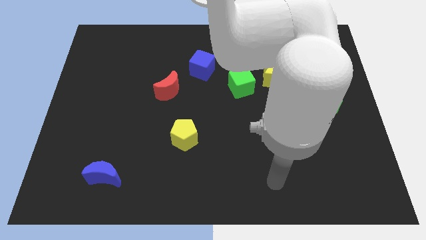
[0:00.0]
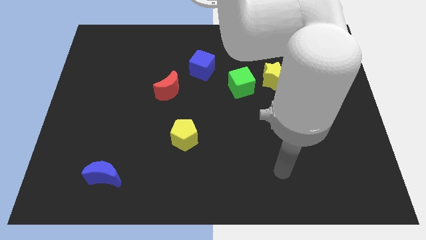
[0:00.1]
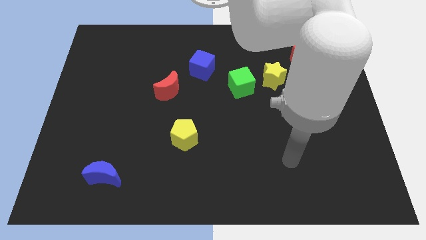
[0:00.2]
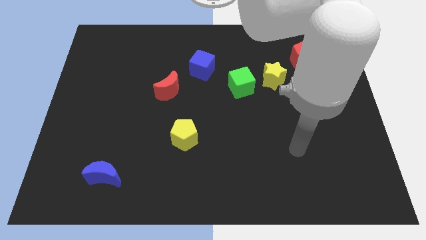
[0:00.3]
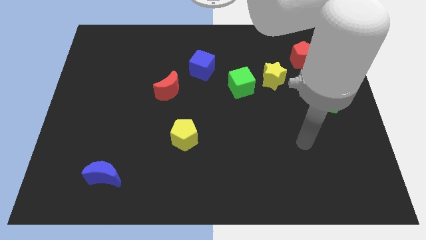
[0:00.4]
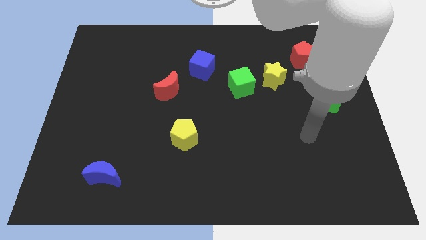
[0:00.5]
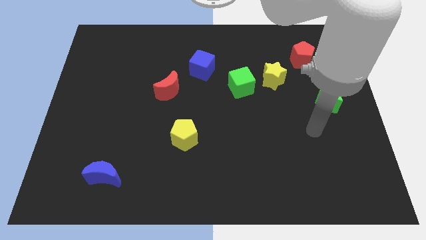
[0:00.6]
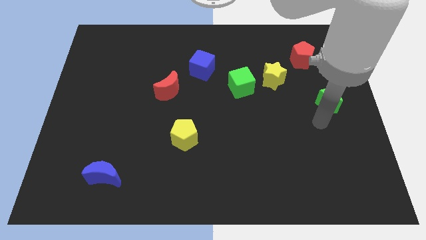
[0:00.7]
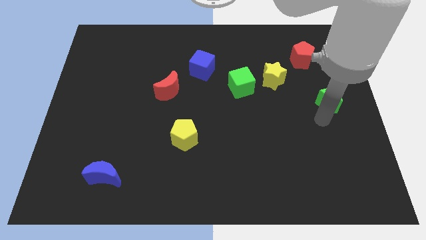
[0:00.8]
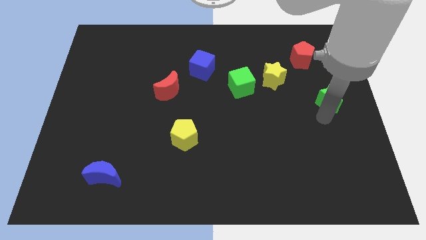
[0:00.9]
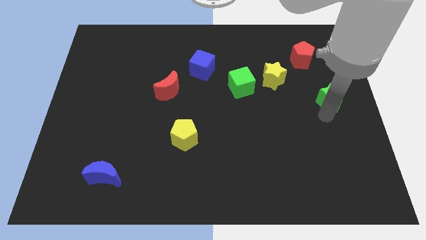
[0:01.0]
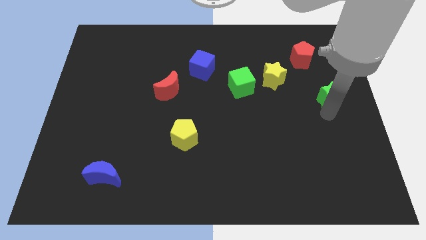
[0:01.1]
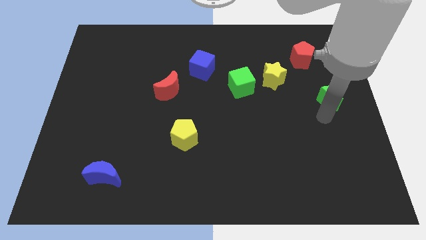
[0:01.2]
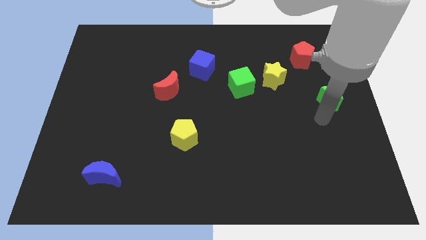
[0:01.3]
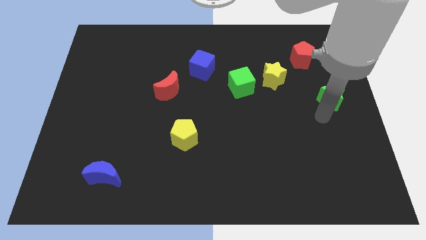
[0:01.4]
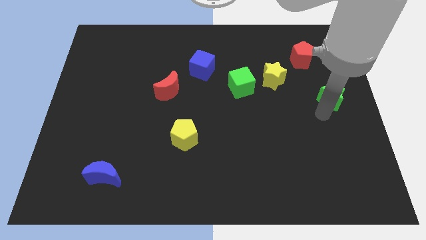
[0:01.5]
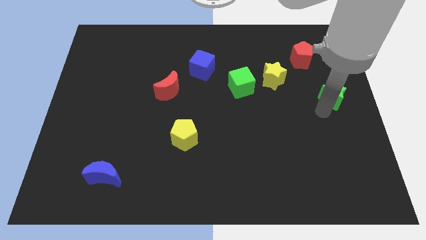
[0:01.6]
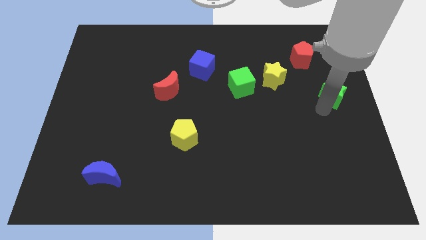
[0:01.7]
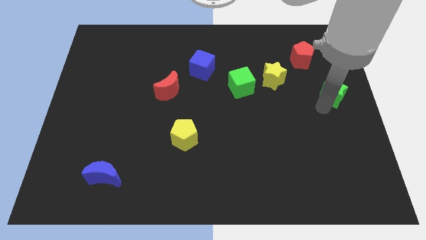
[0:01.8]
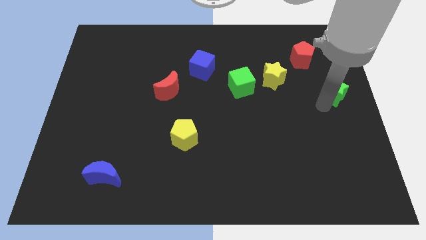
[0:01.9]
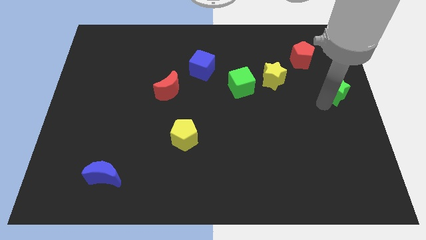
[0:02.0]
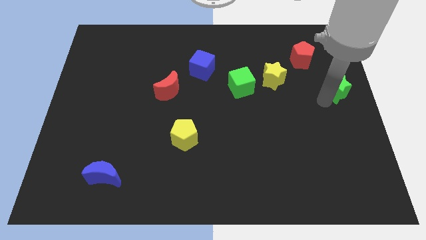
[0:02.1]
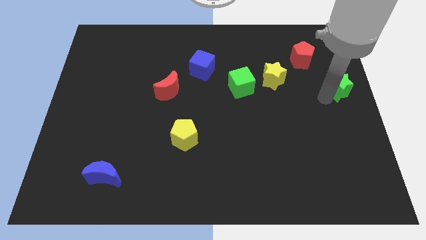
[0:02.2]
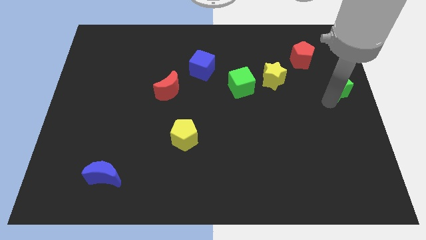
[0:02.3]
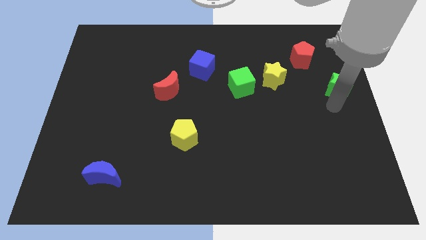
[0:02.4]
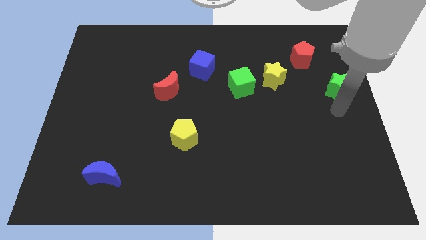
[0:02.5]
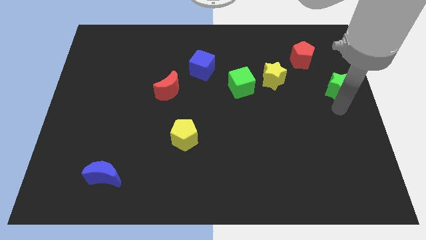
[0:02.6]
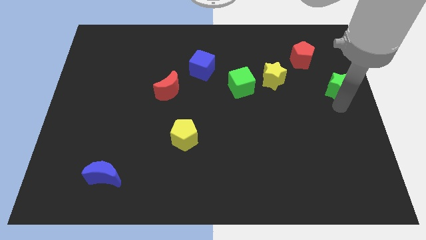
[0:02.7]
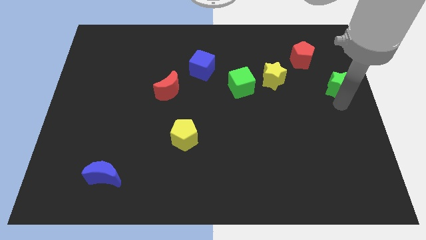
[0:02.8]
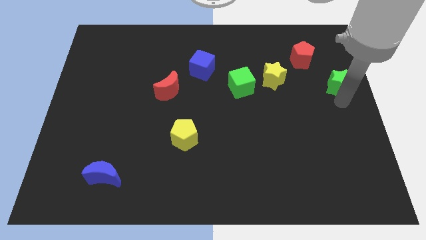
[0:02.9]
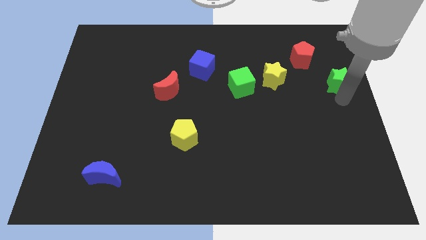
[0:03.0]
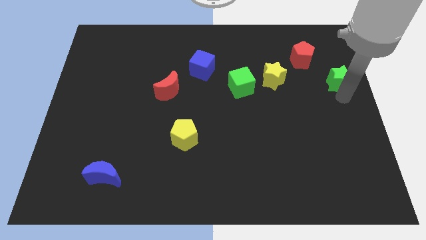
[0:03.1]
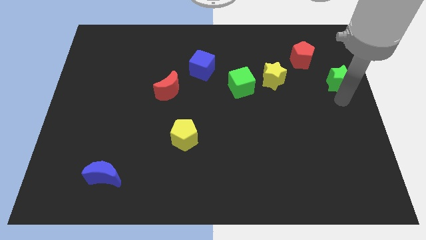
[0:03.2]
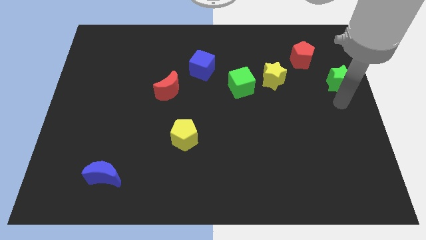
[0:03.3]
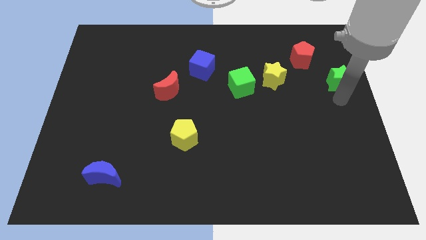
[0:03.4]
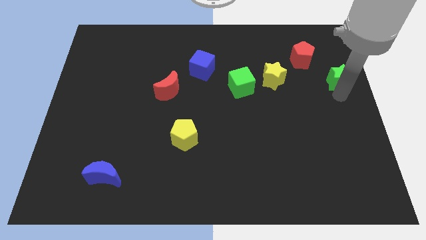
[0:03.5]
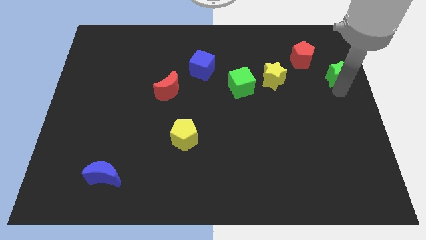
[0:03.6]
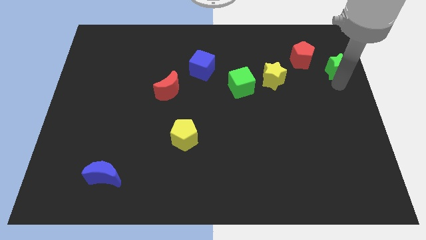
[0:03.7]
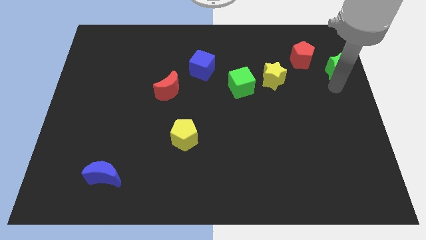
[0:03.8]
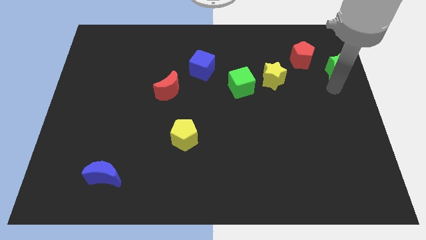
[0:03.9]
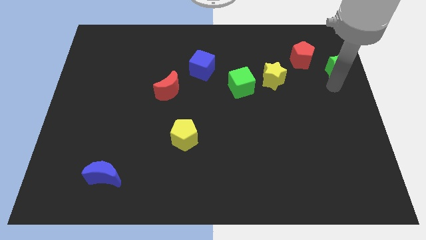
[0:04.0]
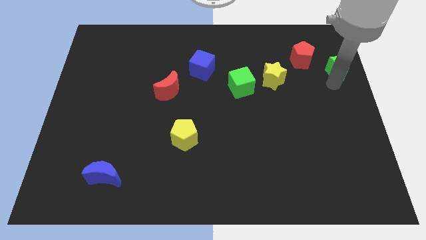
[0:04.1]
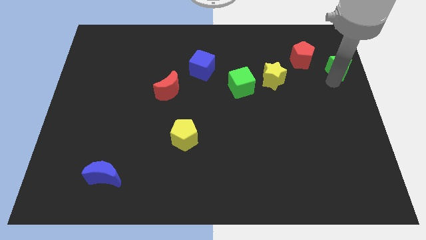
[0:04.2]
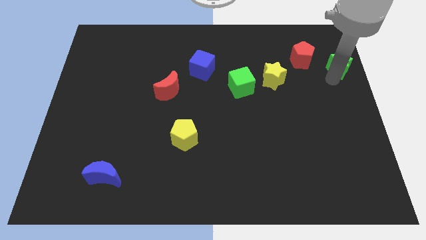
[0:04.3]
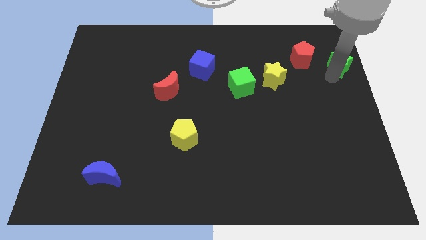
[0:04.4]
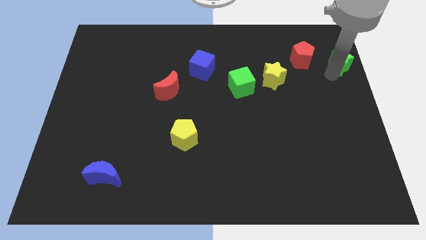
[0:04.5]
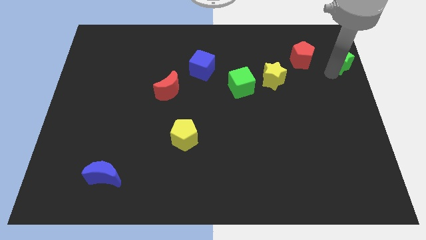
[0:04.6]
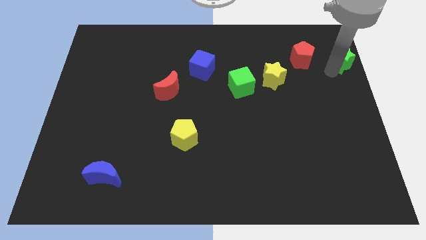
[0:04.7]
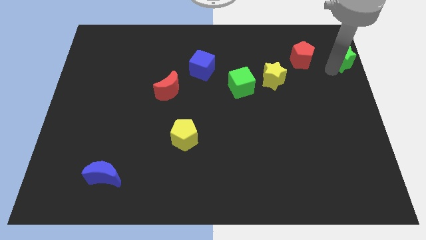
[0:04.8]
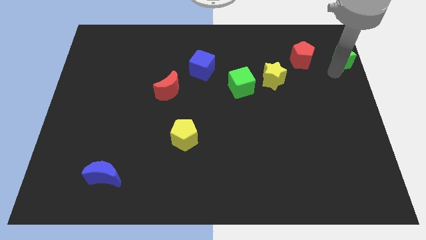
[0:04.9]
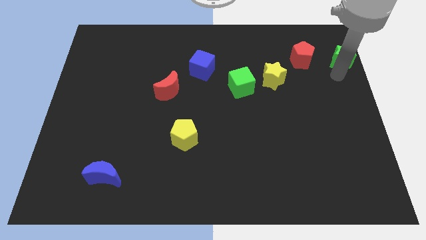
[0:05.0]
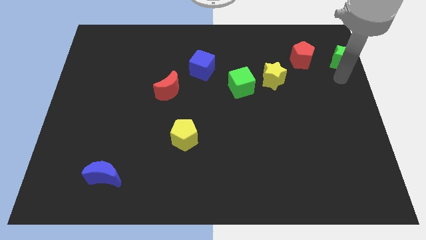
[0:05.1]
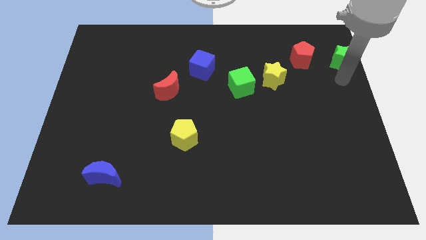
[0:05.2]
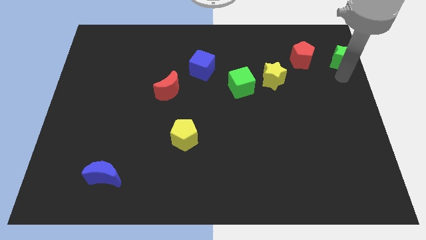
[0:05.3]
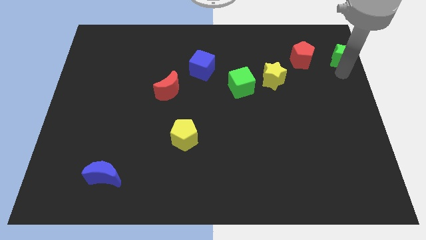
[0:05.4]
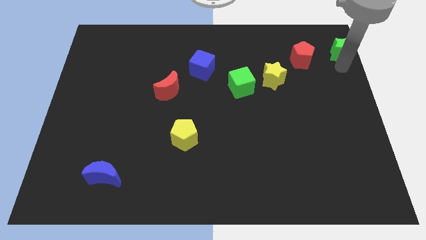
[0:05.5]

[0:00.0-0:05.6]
move the green star to the top right of the board

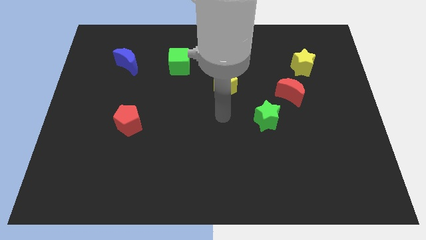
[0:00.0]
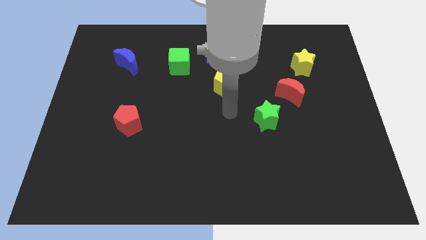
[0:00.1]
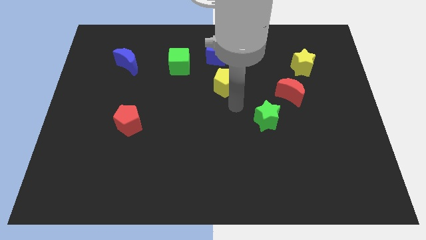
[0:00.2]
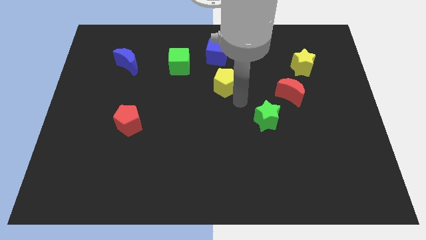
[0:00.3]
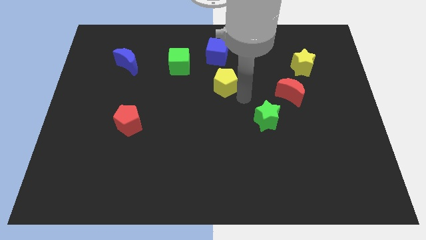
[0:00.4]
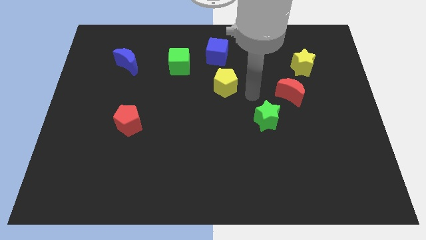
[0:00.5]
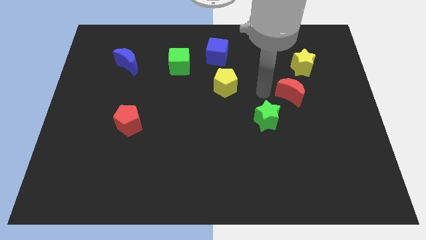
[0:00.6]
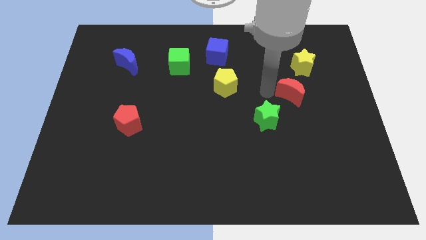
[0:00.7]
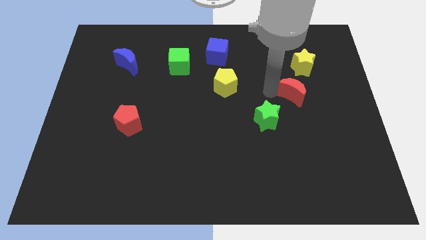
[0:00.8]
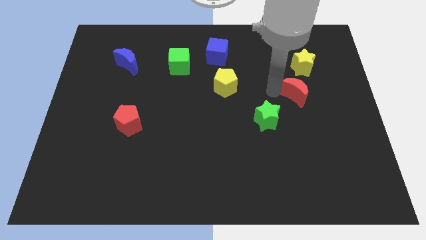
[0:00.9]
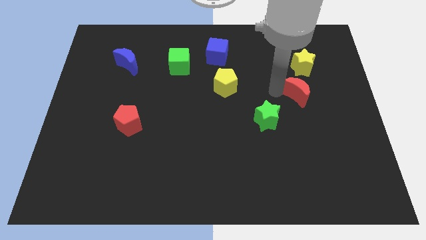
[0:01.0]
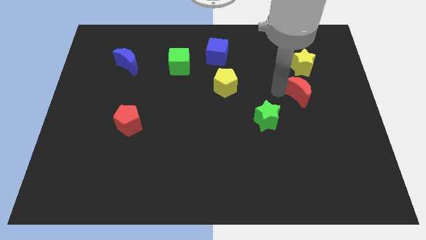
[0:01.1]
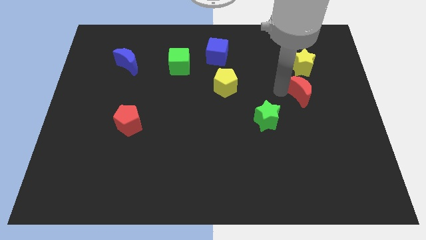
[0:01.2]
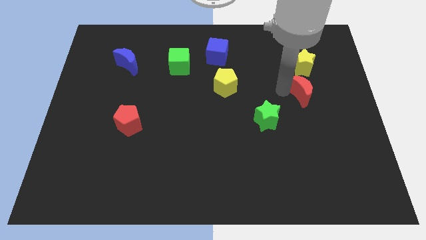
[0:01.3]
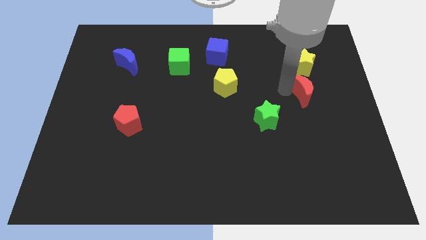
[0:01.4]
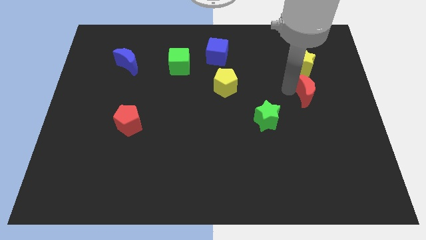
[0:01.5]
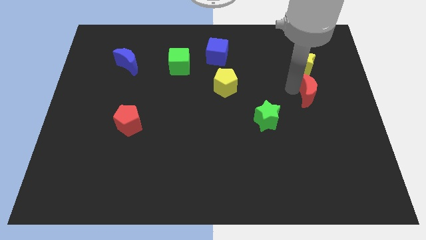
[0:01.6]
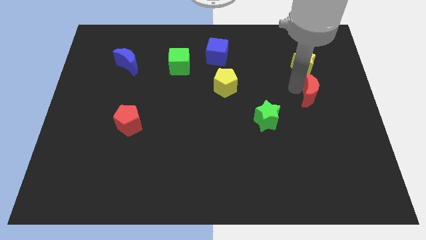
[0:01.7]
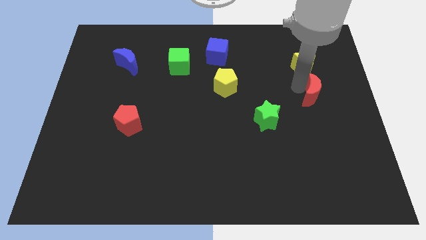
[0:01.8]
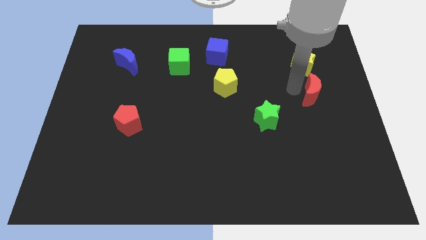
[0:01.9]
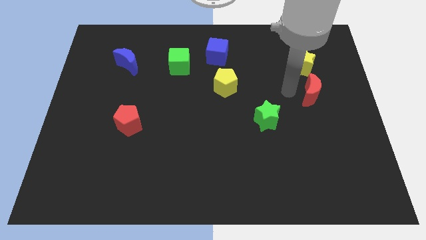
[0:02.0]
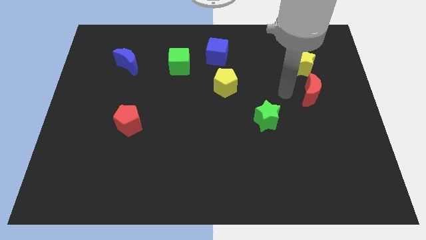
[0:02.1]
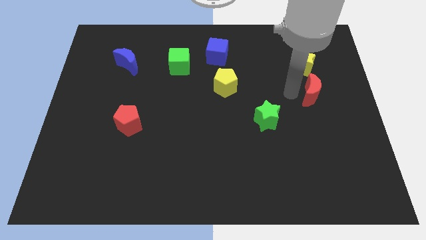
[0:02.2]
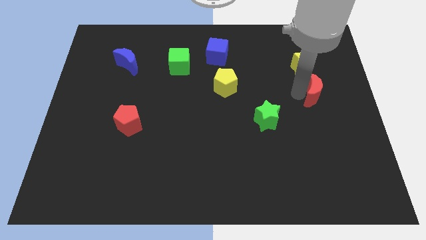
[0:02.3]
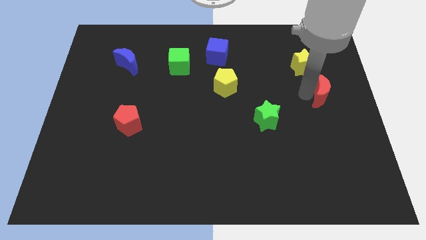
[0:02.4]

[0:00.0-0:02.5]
push the red moon to the right side of the board
